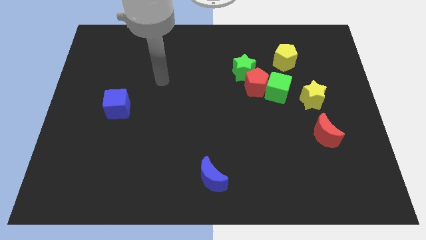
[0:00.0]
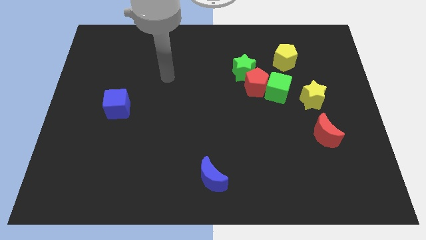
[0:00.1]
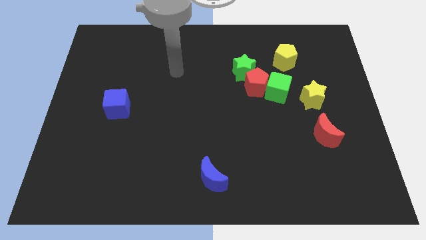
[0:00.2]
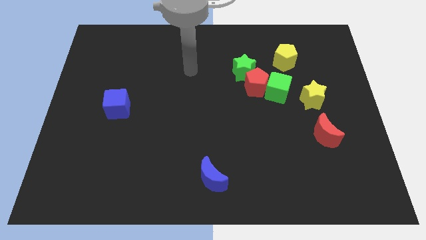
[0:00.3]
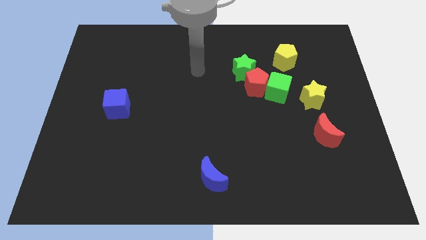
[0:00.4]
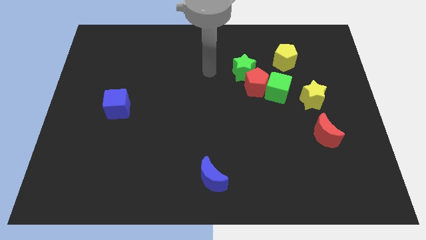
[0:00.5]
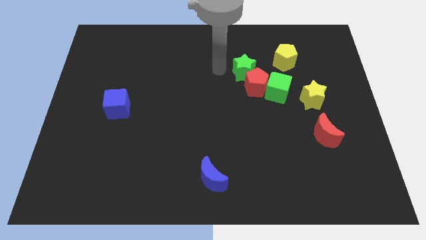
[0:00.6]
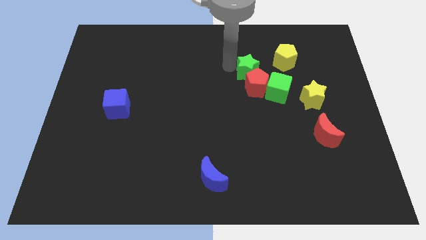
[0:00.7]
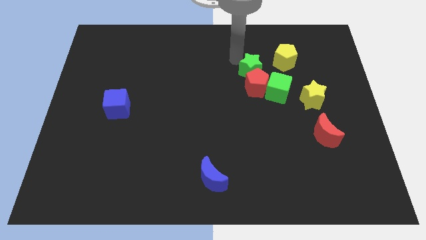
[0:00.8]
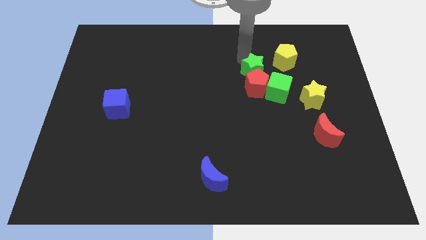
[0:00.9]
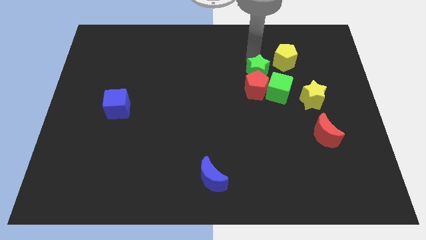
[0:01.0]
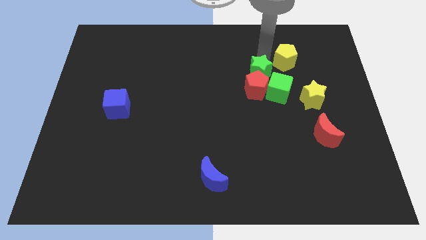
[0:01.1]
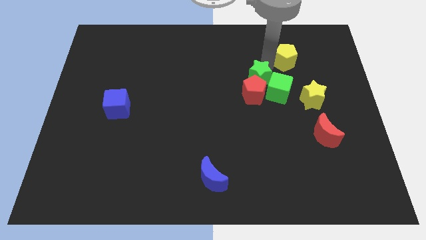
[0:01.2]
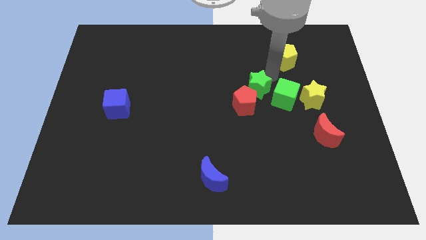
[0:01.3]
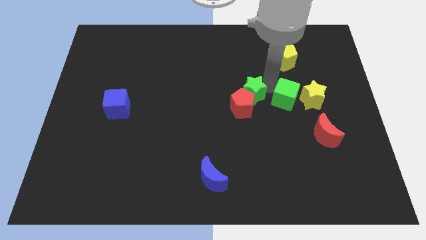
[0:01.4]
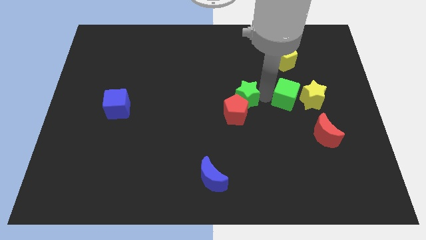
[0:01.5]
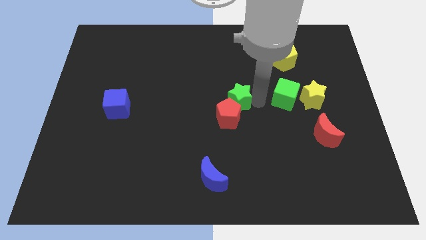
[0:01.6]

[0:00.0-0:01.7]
separate the red pentagon from the green star and green cube

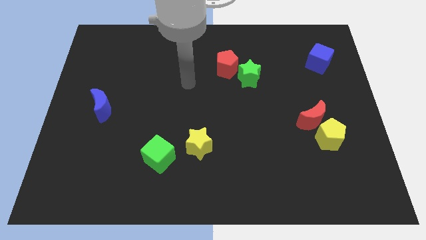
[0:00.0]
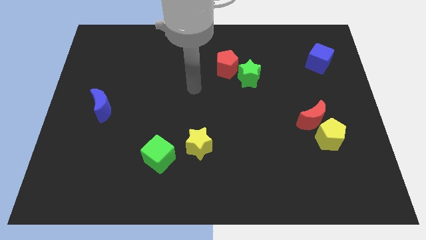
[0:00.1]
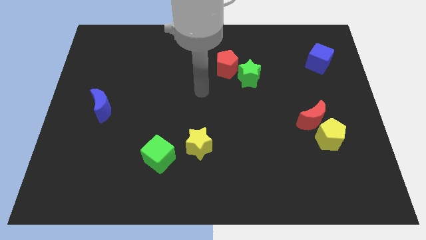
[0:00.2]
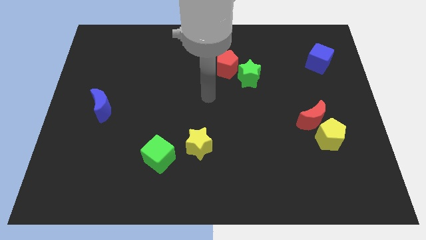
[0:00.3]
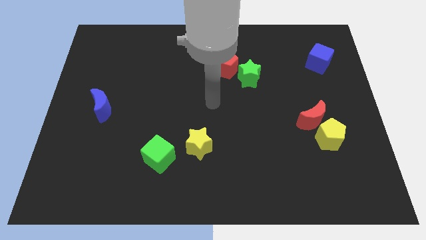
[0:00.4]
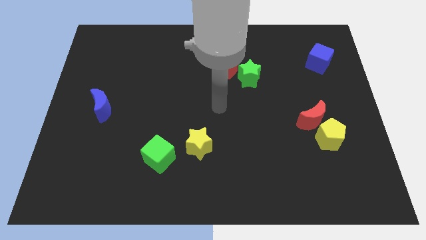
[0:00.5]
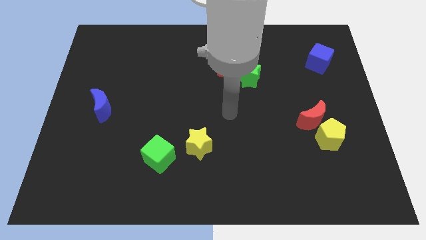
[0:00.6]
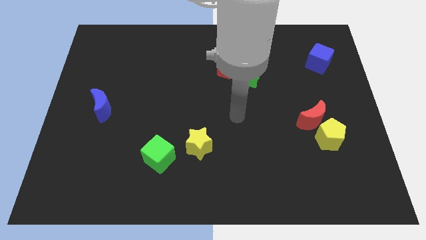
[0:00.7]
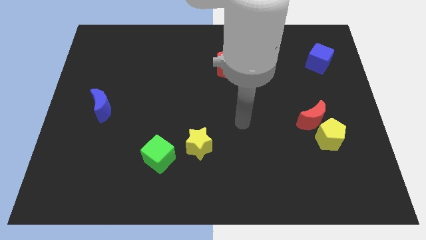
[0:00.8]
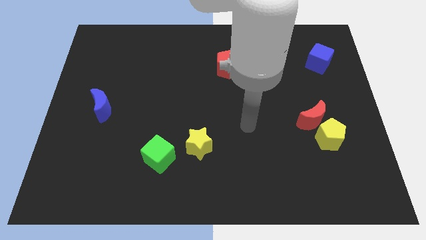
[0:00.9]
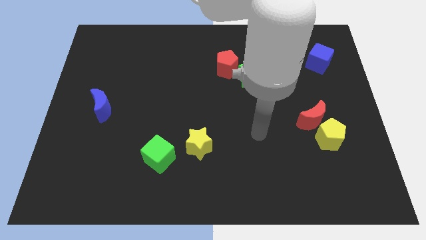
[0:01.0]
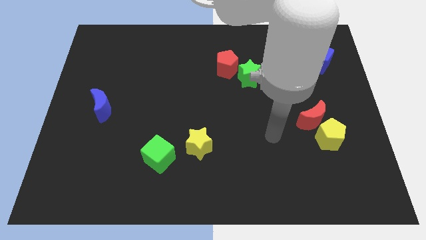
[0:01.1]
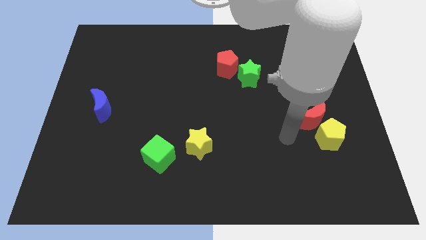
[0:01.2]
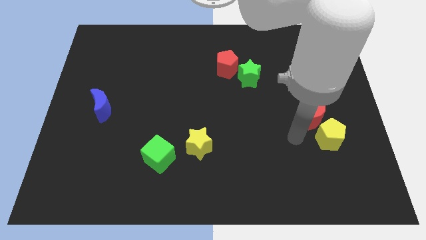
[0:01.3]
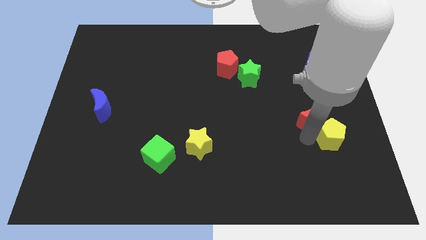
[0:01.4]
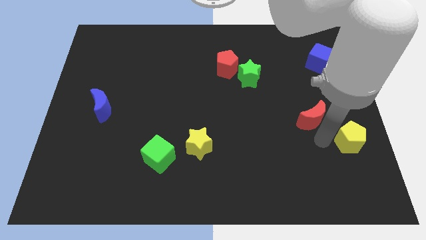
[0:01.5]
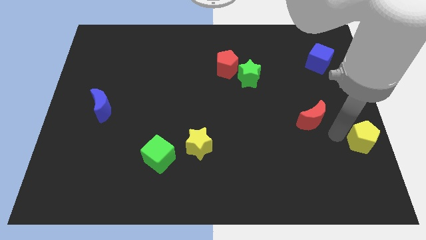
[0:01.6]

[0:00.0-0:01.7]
separate the red moon from the yellow pentagon

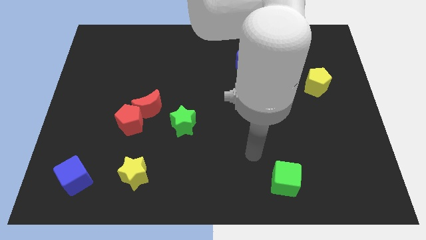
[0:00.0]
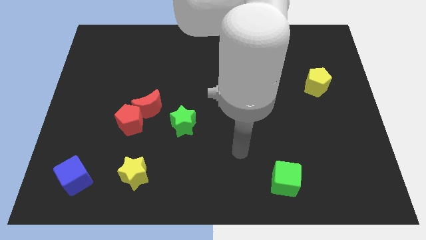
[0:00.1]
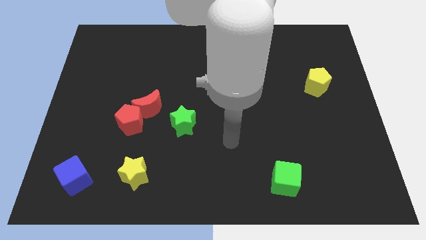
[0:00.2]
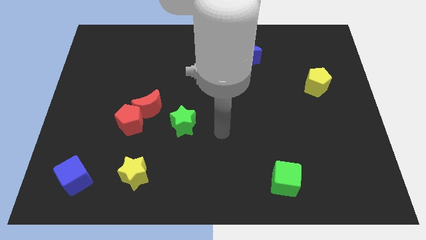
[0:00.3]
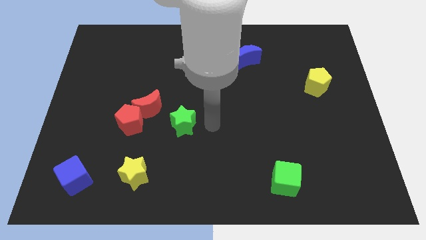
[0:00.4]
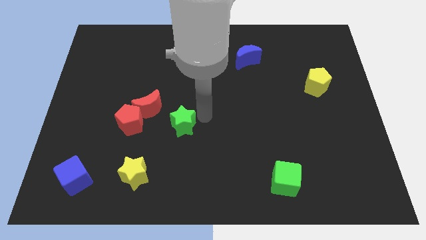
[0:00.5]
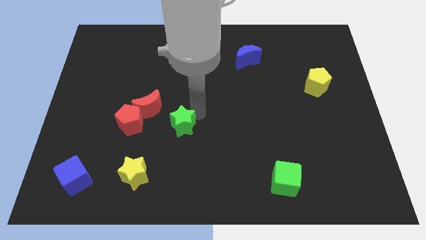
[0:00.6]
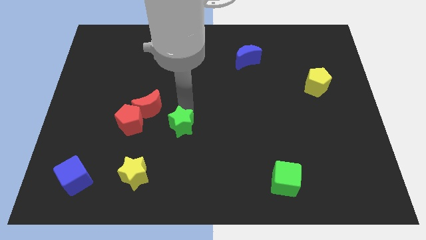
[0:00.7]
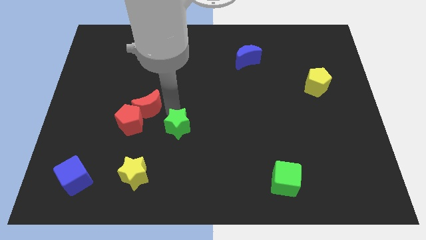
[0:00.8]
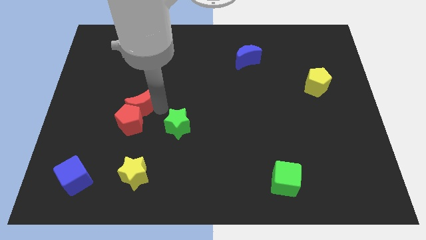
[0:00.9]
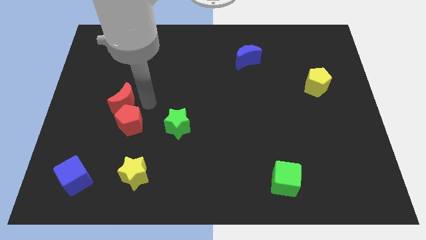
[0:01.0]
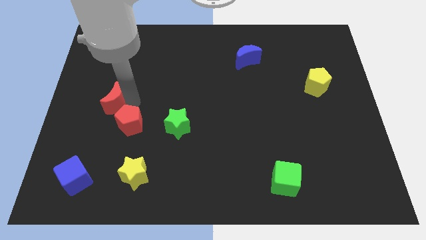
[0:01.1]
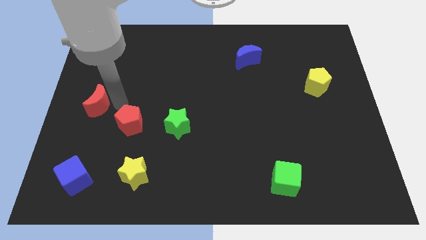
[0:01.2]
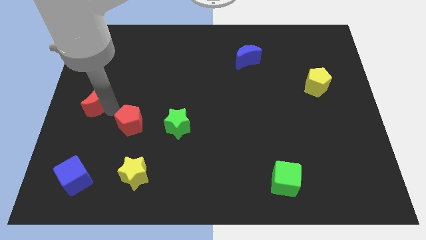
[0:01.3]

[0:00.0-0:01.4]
separate the red pentagon from the red moon

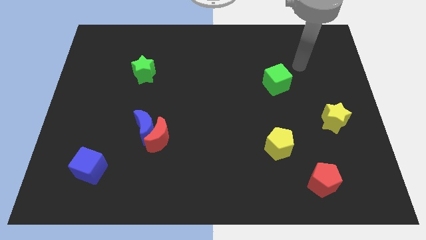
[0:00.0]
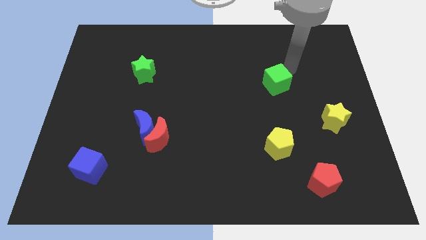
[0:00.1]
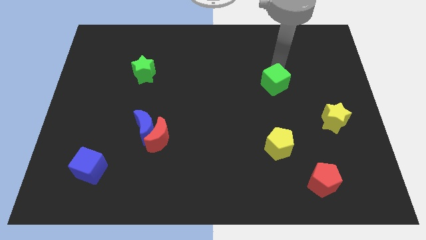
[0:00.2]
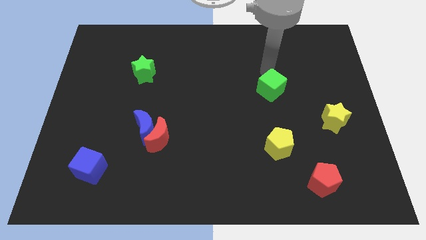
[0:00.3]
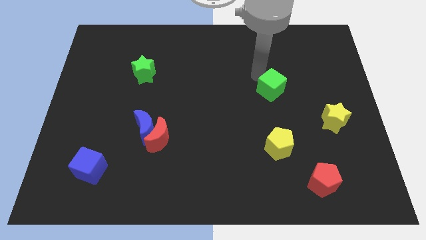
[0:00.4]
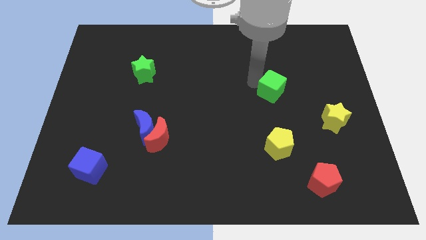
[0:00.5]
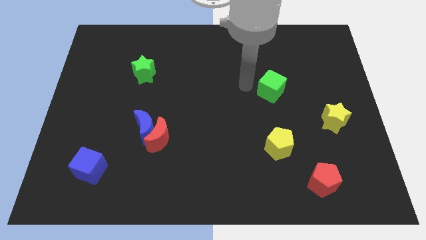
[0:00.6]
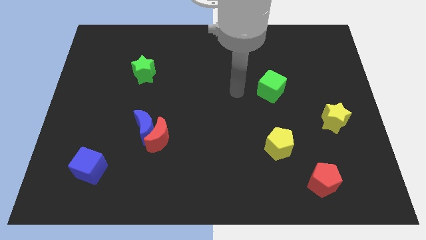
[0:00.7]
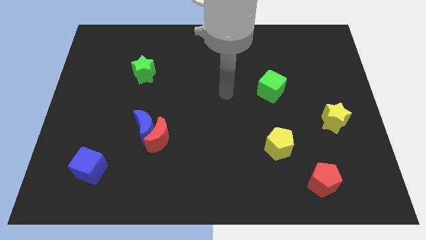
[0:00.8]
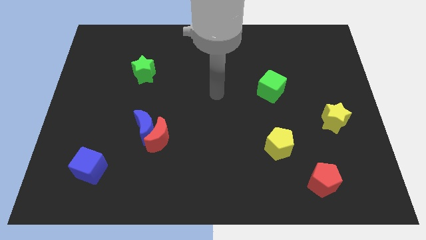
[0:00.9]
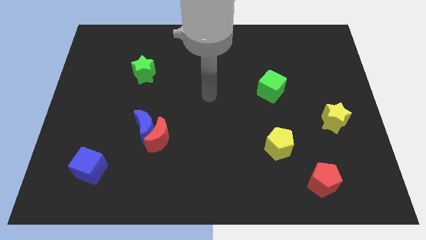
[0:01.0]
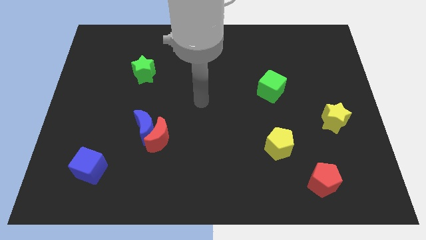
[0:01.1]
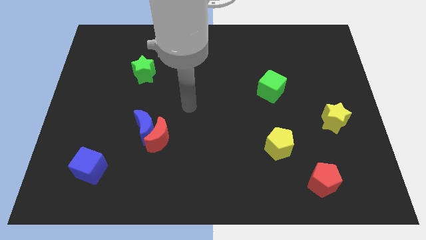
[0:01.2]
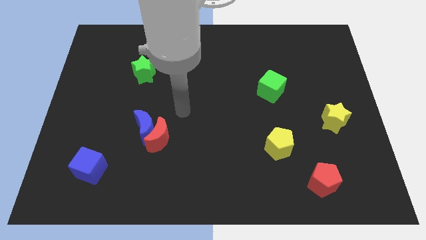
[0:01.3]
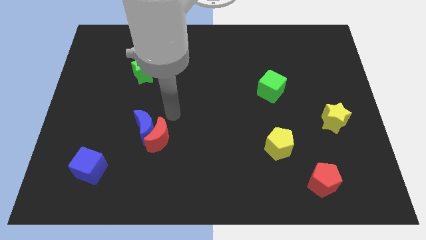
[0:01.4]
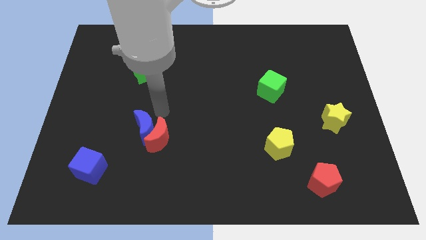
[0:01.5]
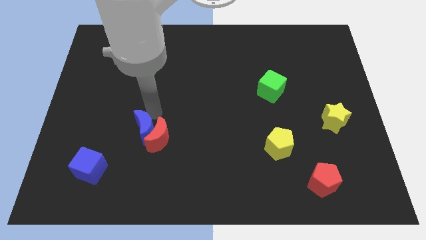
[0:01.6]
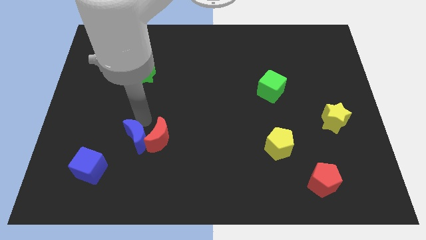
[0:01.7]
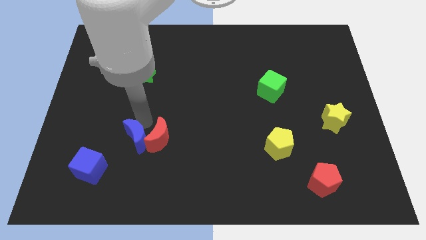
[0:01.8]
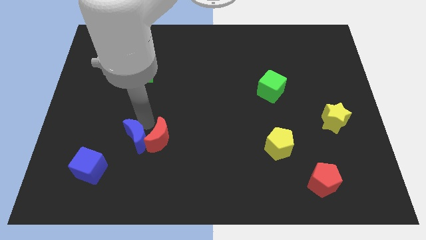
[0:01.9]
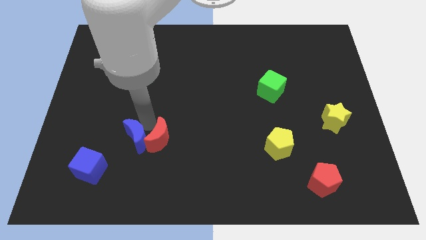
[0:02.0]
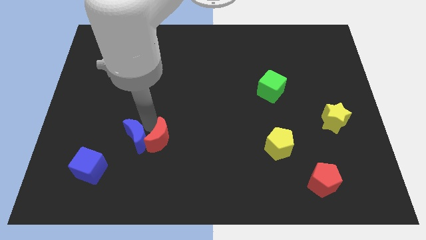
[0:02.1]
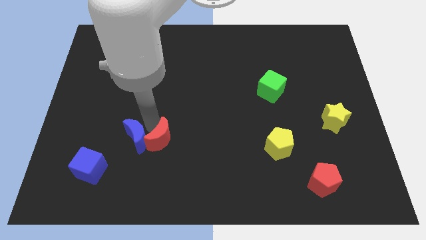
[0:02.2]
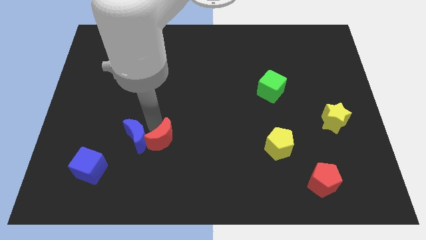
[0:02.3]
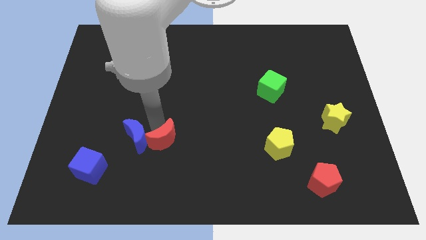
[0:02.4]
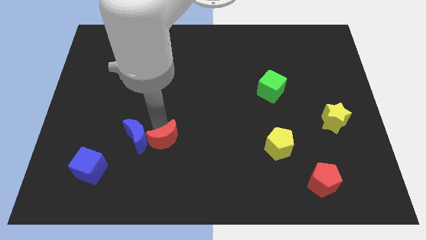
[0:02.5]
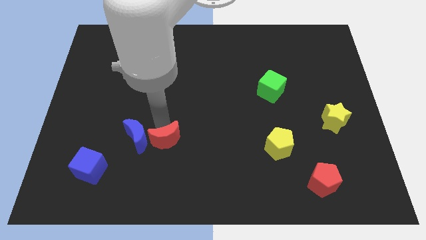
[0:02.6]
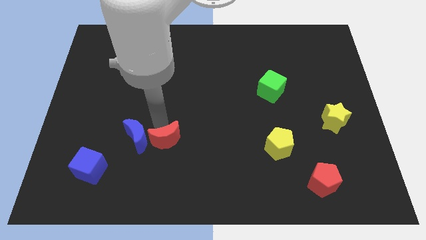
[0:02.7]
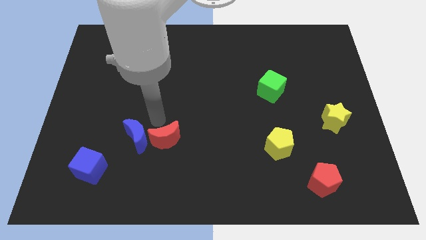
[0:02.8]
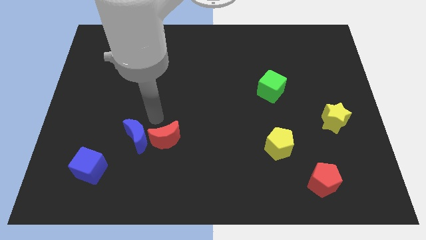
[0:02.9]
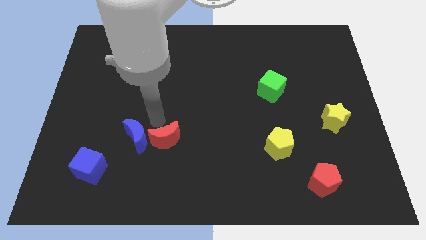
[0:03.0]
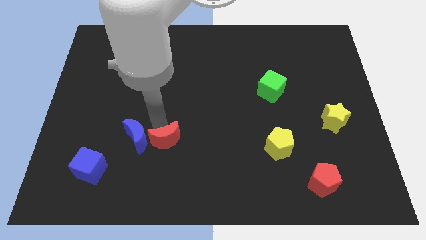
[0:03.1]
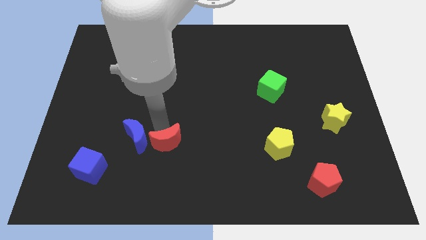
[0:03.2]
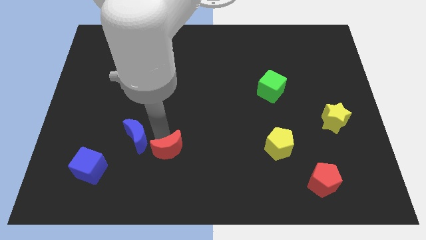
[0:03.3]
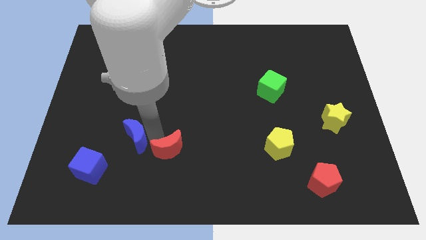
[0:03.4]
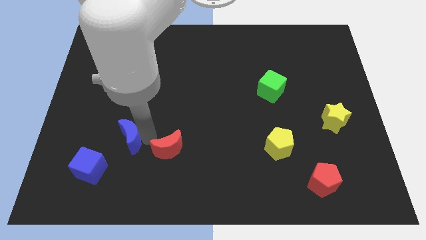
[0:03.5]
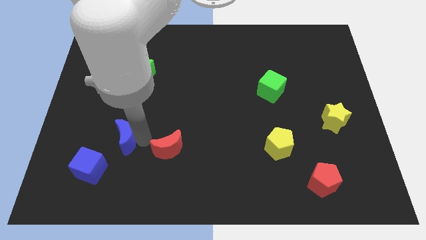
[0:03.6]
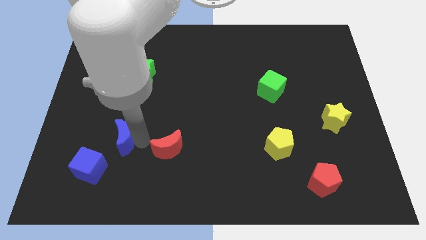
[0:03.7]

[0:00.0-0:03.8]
separate the red moon from the blue moon

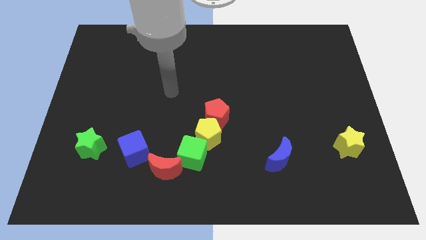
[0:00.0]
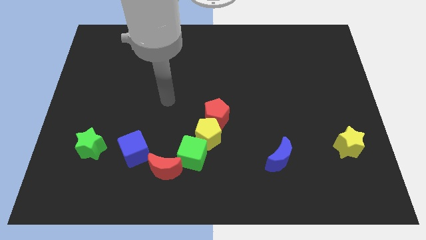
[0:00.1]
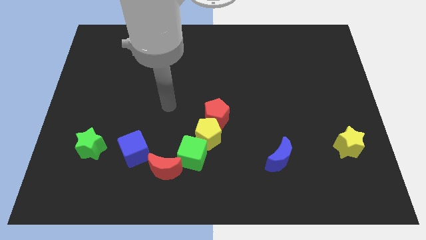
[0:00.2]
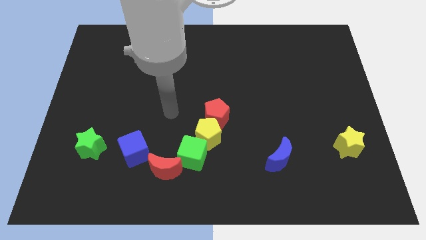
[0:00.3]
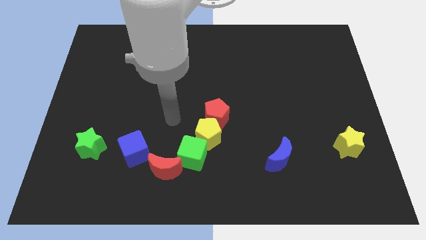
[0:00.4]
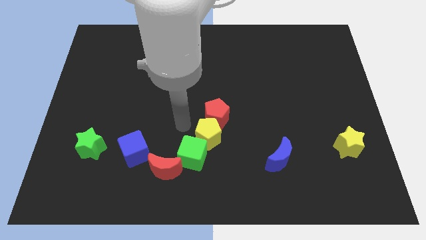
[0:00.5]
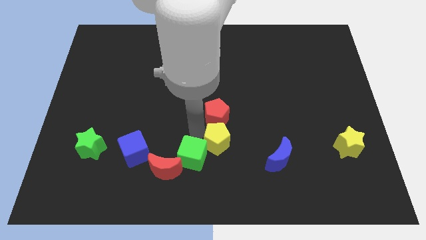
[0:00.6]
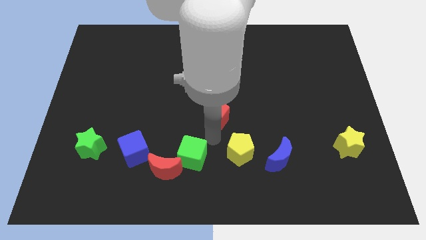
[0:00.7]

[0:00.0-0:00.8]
move the red pentagon away from the yellow pentagon
